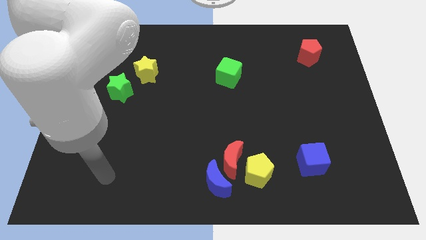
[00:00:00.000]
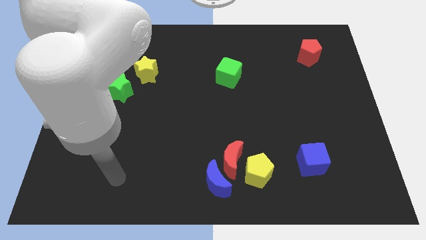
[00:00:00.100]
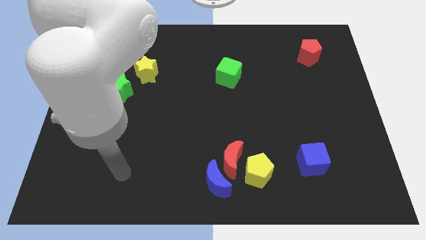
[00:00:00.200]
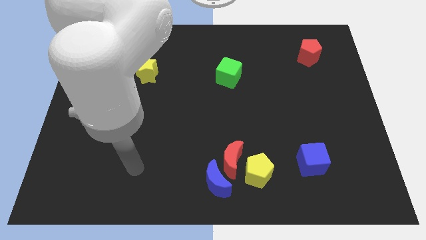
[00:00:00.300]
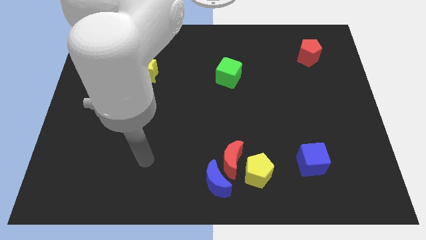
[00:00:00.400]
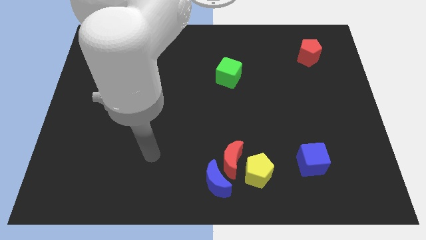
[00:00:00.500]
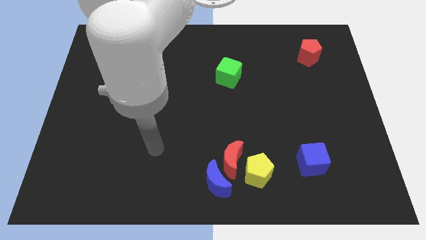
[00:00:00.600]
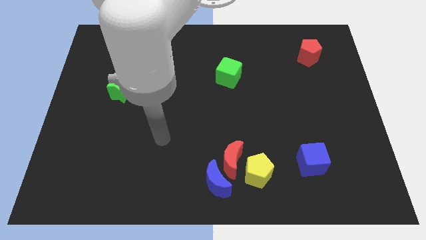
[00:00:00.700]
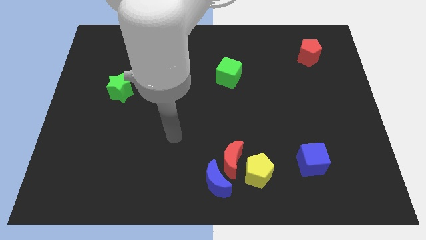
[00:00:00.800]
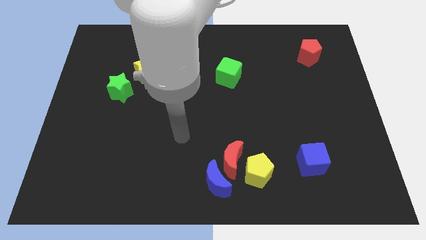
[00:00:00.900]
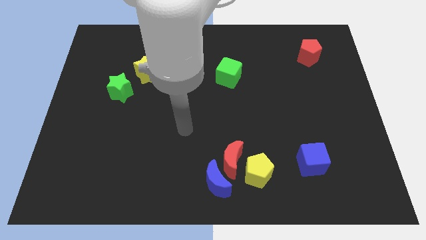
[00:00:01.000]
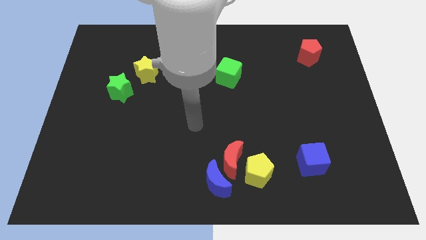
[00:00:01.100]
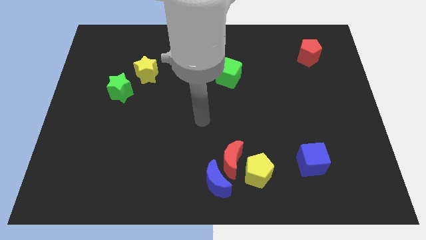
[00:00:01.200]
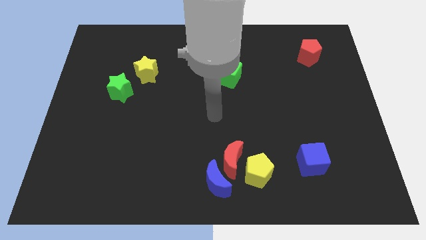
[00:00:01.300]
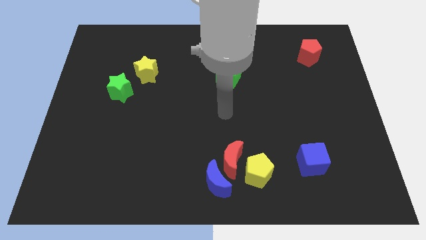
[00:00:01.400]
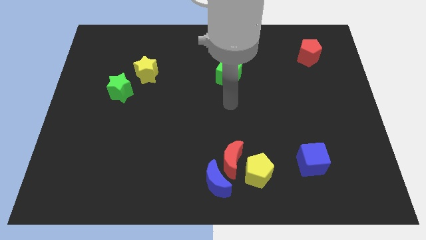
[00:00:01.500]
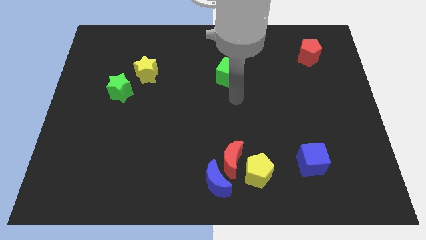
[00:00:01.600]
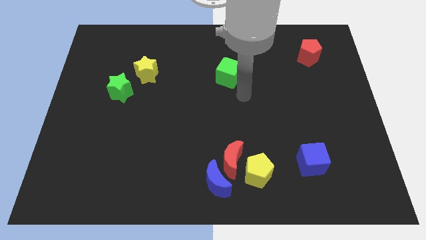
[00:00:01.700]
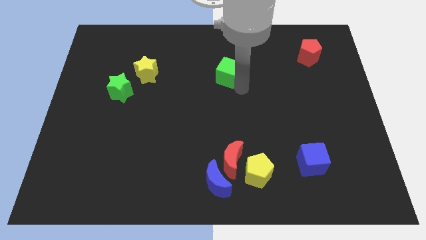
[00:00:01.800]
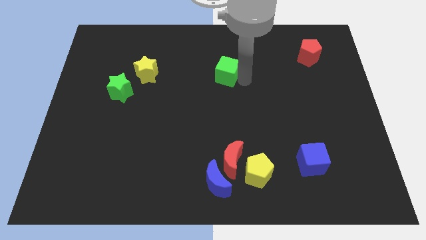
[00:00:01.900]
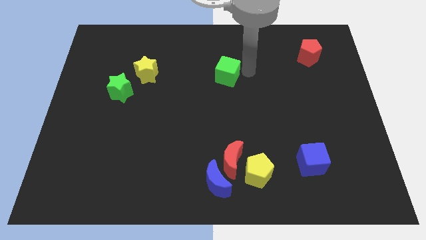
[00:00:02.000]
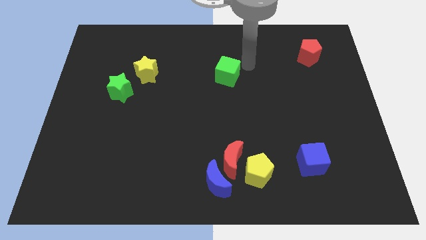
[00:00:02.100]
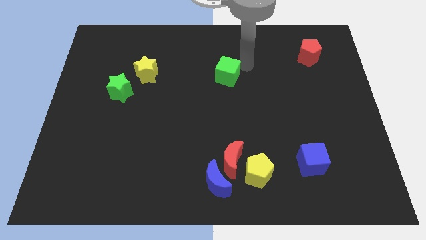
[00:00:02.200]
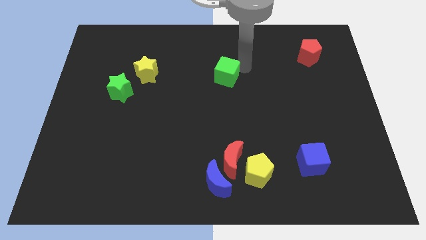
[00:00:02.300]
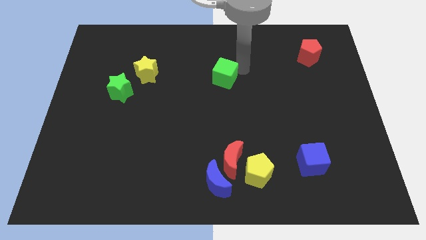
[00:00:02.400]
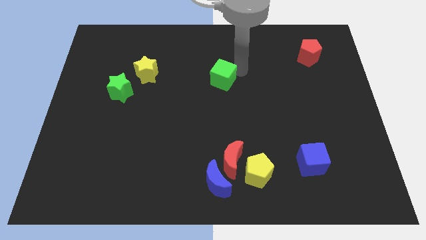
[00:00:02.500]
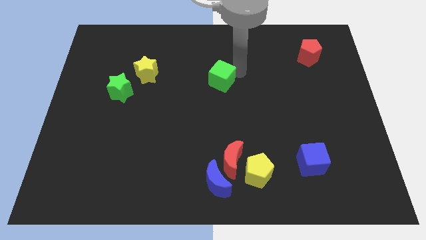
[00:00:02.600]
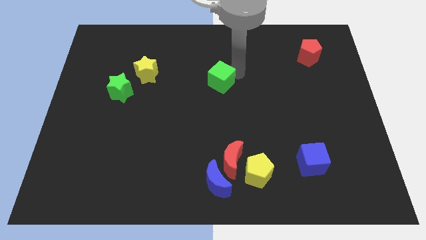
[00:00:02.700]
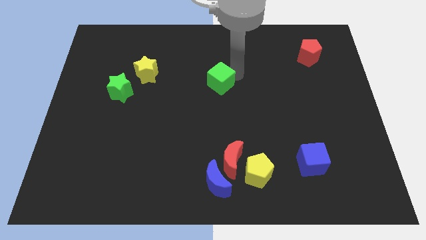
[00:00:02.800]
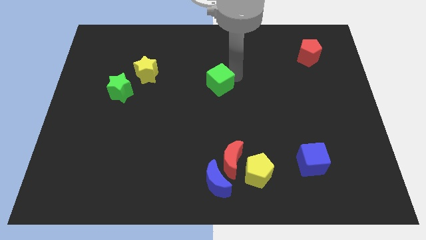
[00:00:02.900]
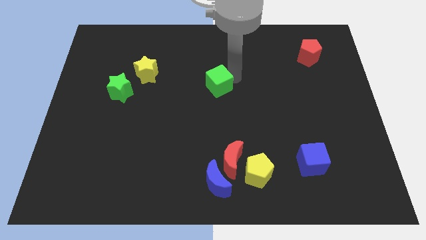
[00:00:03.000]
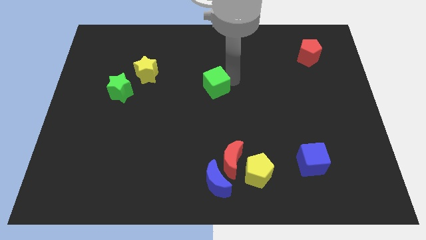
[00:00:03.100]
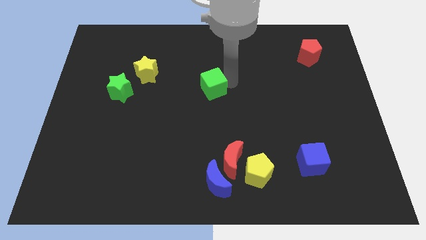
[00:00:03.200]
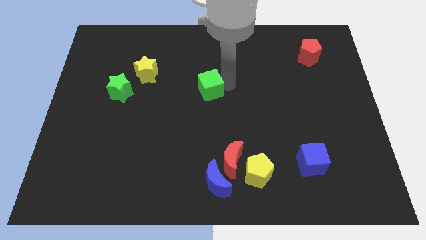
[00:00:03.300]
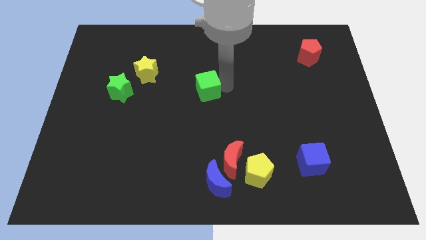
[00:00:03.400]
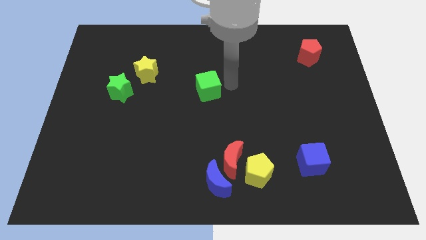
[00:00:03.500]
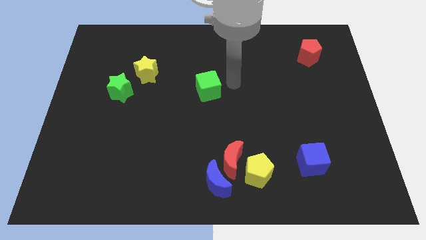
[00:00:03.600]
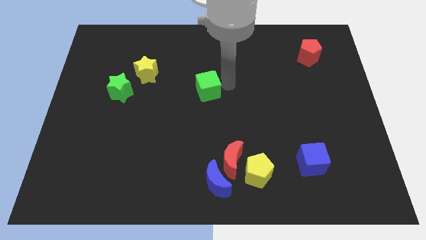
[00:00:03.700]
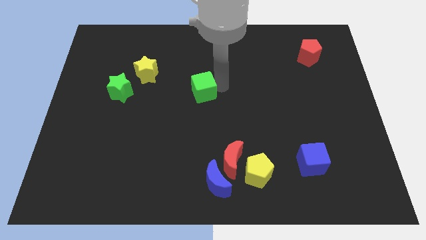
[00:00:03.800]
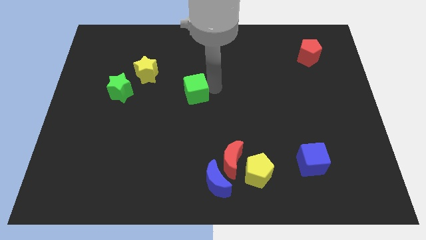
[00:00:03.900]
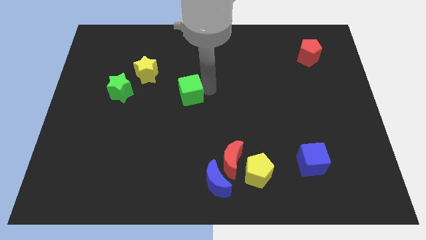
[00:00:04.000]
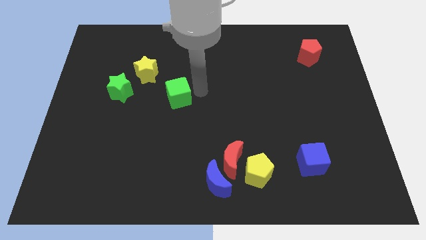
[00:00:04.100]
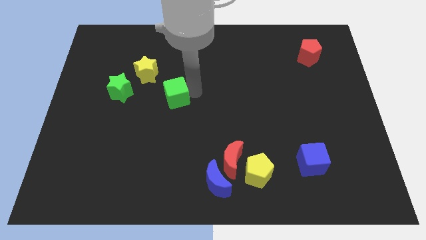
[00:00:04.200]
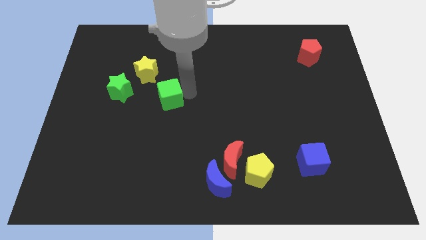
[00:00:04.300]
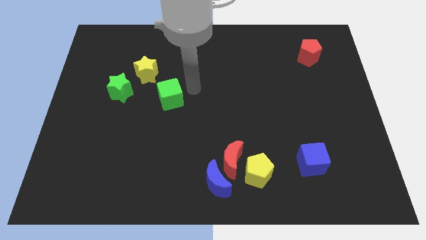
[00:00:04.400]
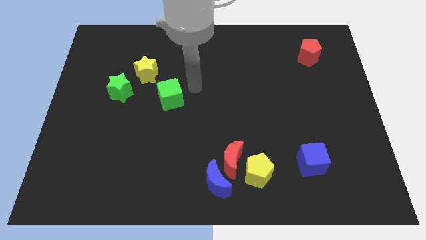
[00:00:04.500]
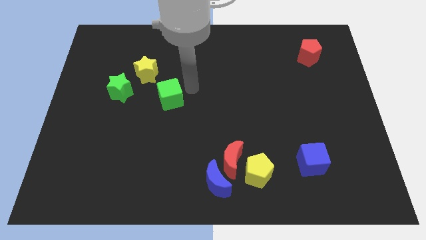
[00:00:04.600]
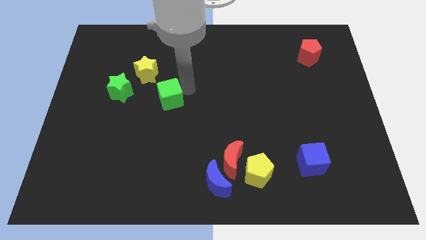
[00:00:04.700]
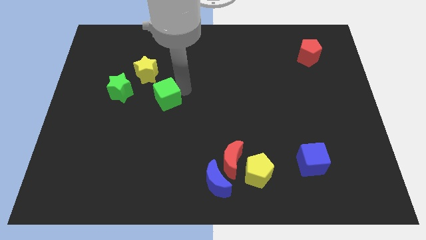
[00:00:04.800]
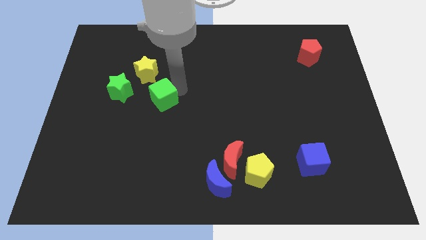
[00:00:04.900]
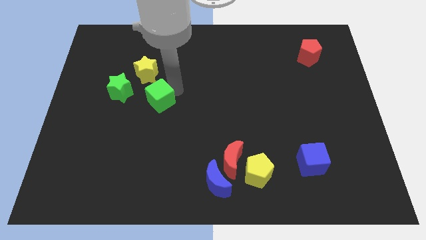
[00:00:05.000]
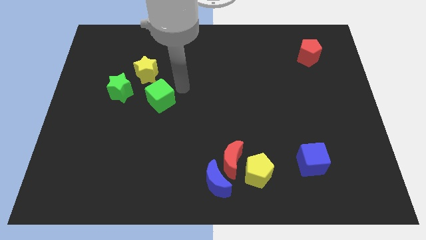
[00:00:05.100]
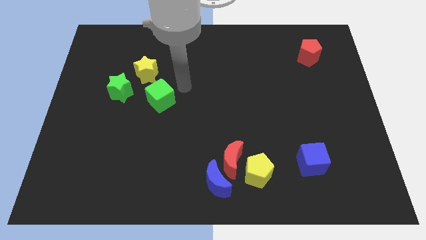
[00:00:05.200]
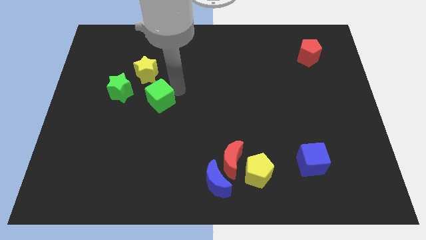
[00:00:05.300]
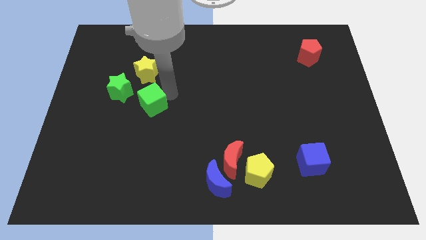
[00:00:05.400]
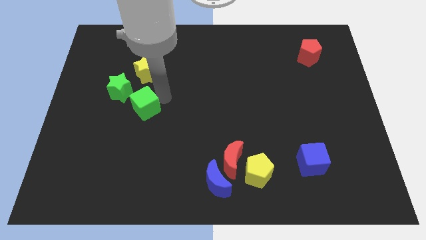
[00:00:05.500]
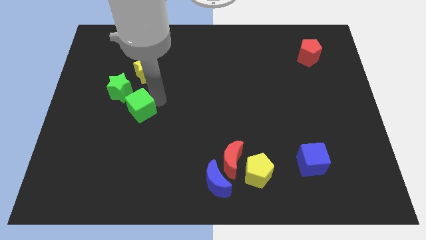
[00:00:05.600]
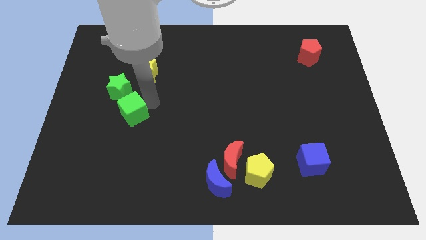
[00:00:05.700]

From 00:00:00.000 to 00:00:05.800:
move the green cube to the bottom of the green star

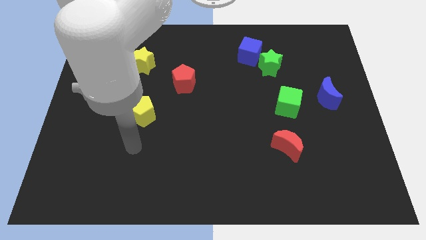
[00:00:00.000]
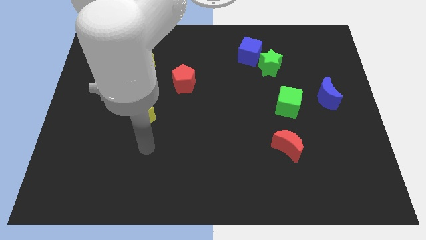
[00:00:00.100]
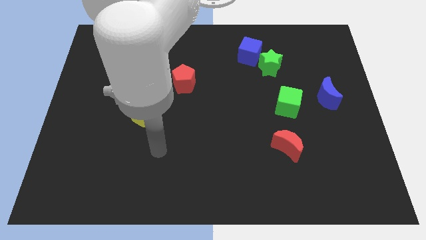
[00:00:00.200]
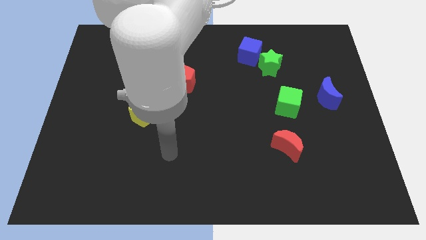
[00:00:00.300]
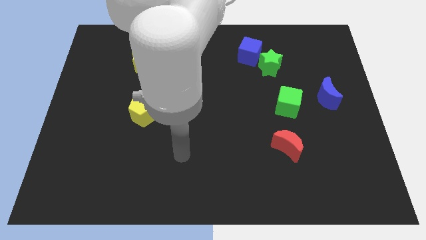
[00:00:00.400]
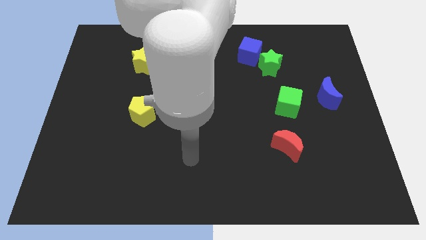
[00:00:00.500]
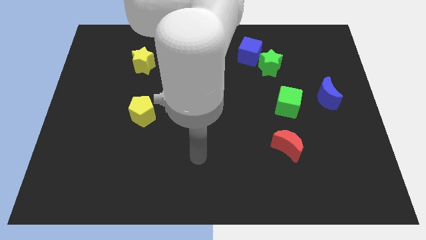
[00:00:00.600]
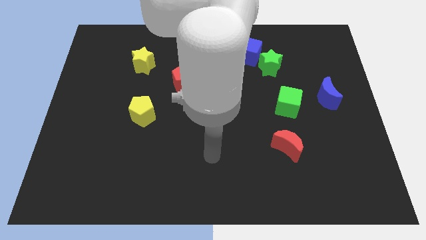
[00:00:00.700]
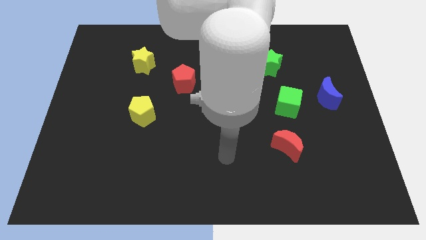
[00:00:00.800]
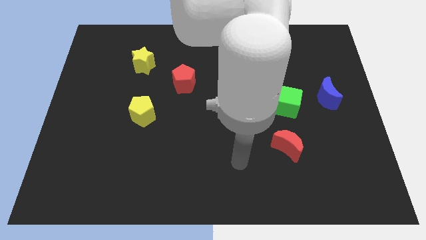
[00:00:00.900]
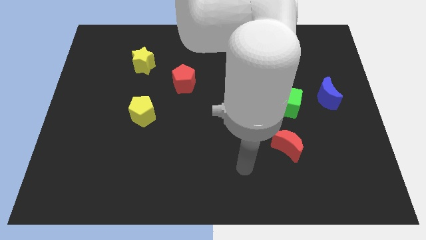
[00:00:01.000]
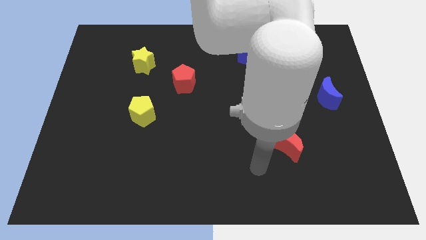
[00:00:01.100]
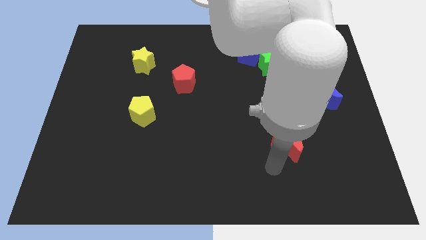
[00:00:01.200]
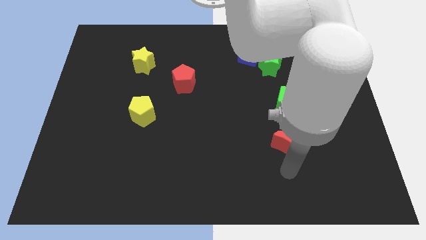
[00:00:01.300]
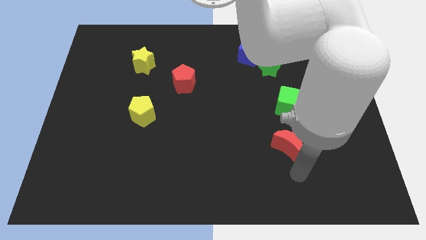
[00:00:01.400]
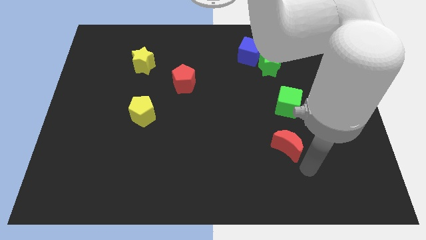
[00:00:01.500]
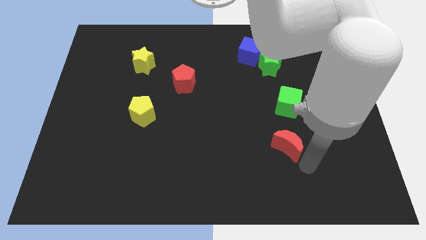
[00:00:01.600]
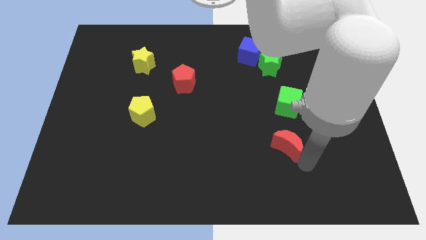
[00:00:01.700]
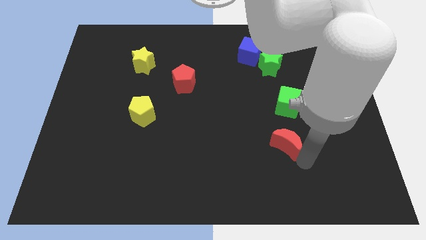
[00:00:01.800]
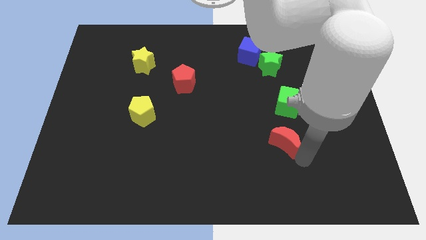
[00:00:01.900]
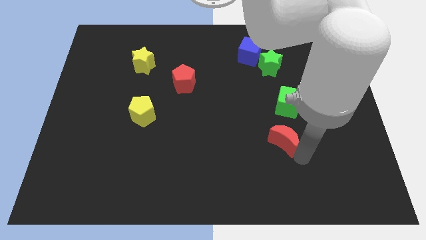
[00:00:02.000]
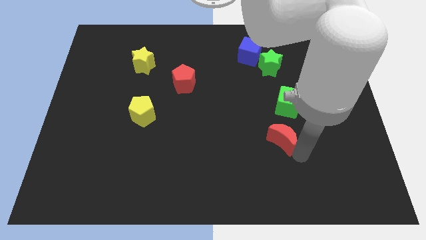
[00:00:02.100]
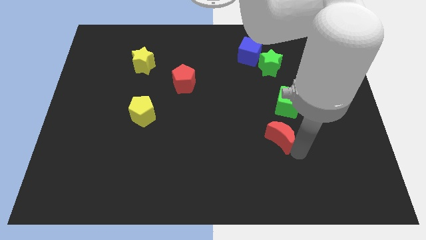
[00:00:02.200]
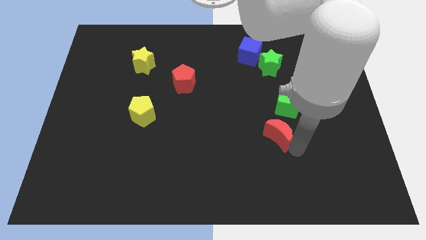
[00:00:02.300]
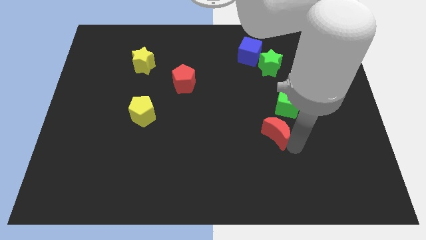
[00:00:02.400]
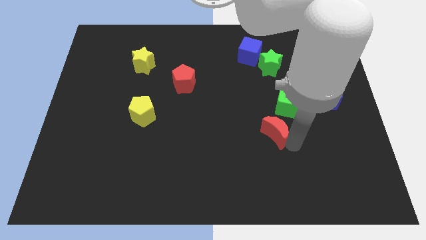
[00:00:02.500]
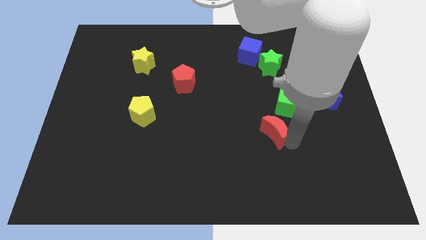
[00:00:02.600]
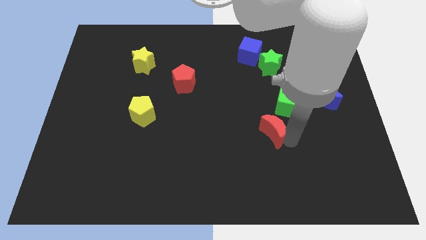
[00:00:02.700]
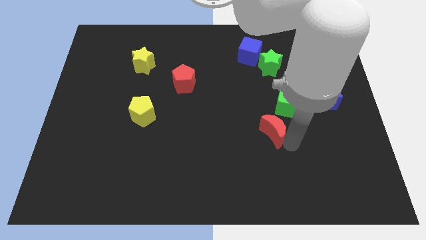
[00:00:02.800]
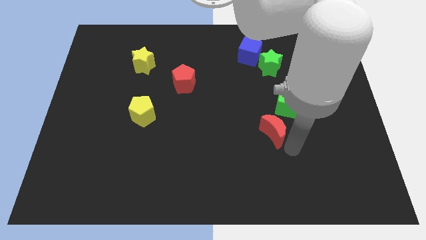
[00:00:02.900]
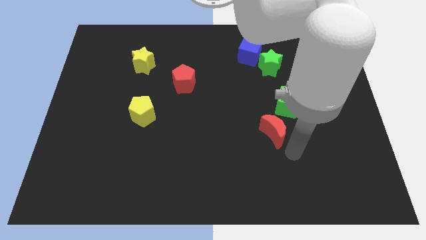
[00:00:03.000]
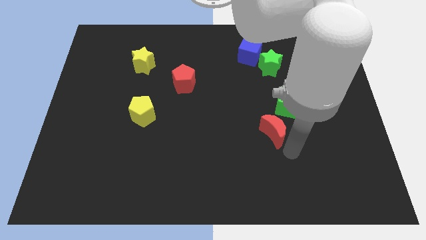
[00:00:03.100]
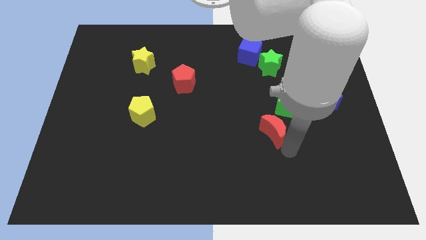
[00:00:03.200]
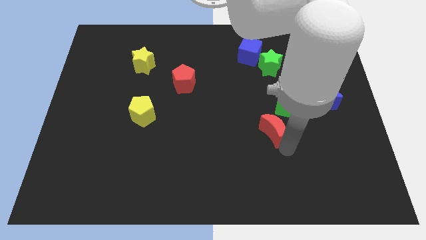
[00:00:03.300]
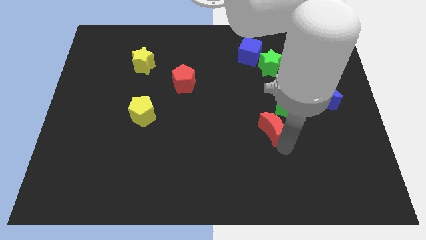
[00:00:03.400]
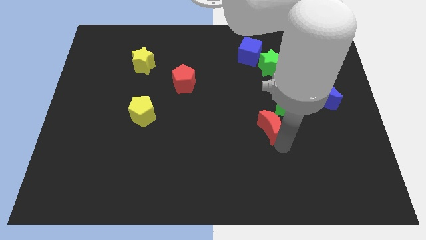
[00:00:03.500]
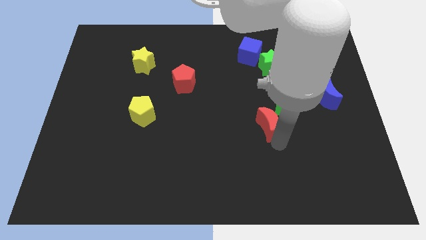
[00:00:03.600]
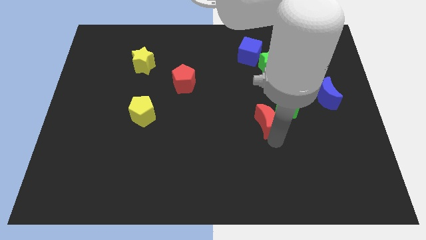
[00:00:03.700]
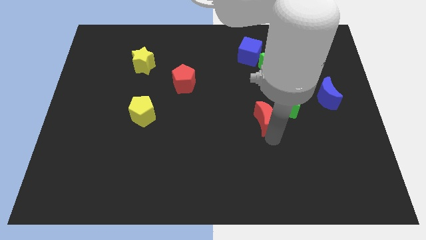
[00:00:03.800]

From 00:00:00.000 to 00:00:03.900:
push the red moon left of the green cube
